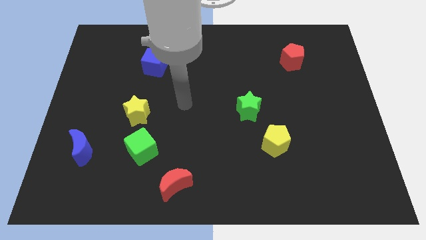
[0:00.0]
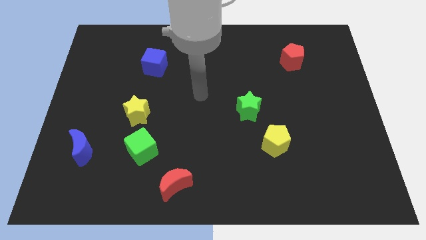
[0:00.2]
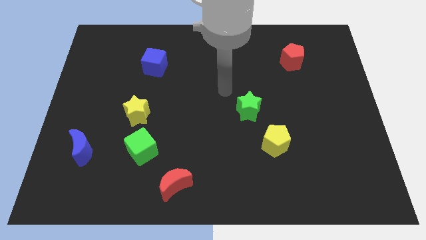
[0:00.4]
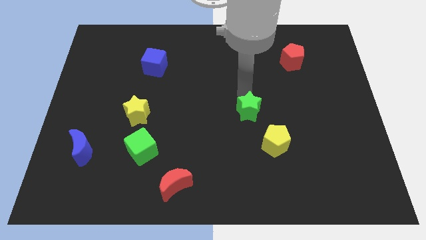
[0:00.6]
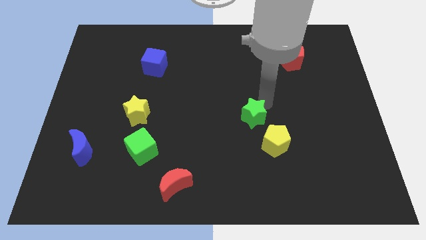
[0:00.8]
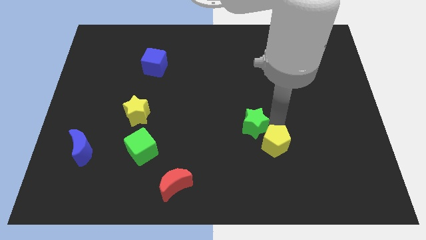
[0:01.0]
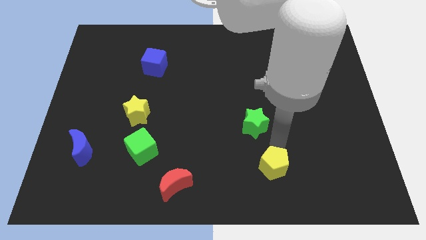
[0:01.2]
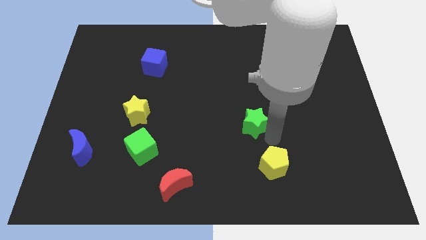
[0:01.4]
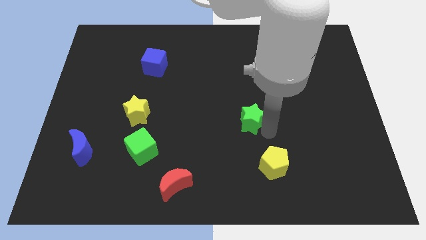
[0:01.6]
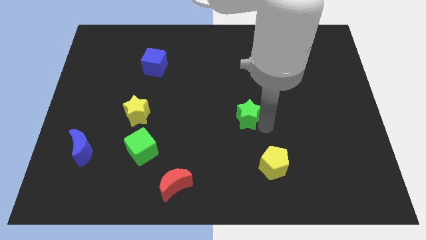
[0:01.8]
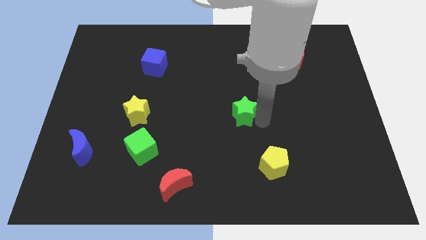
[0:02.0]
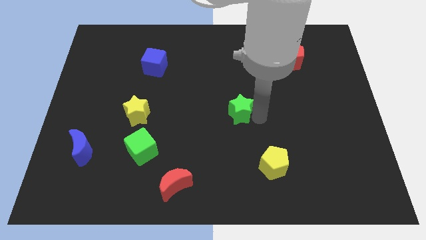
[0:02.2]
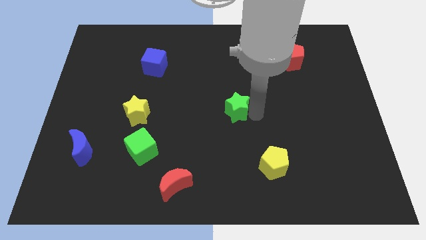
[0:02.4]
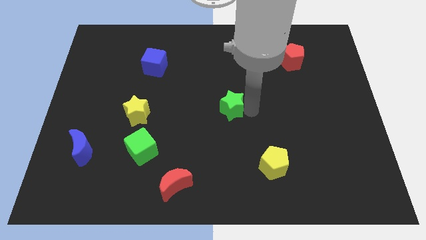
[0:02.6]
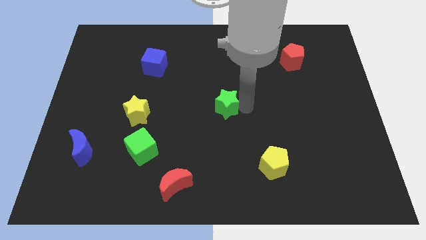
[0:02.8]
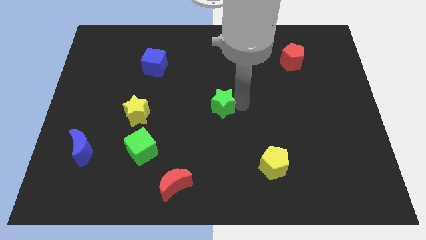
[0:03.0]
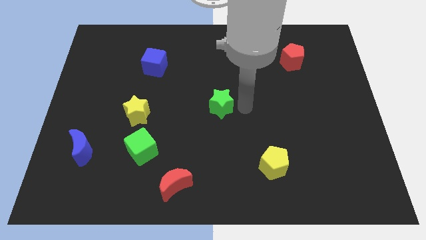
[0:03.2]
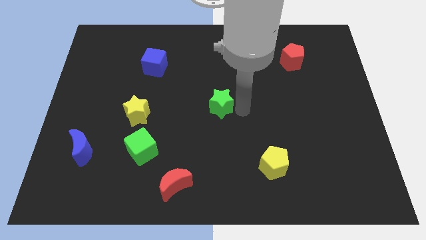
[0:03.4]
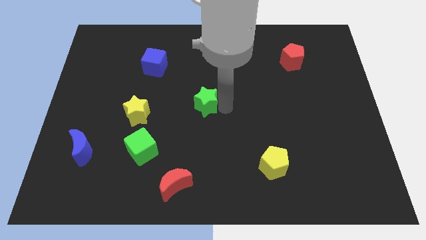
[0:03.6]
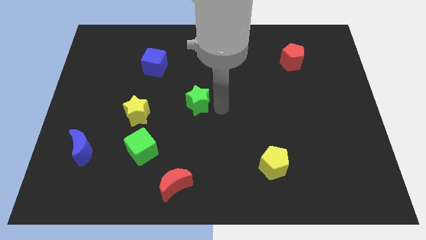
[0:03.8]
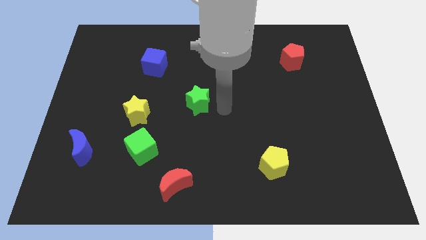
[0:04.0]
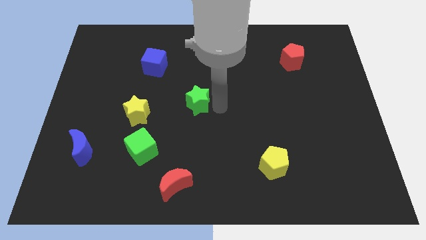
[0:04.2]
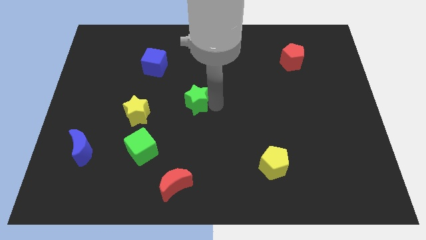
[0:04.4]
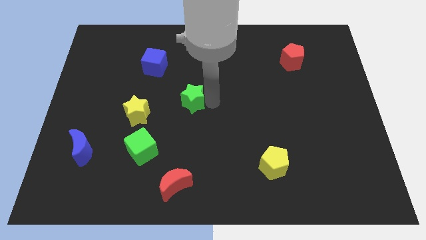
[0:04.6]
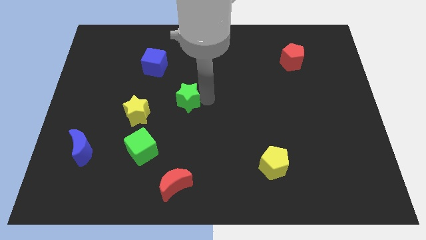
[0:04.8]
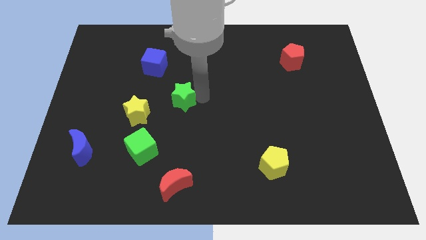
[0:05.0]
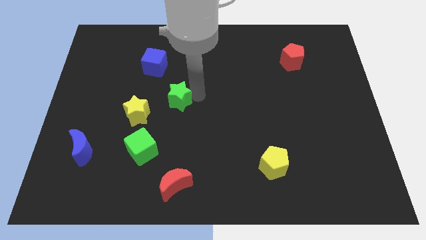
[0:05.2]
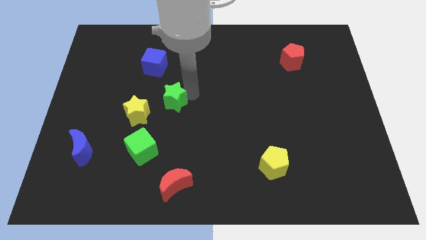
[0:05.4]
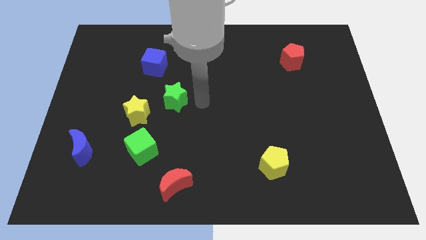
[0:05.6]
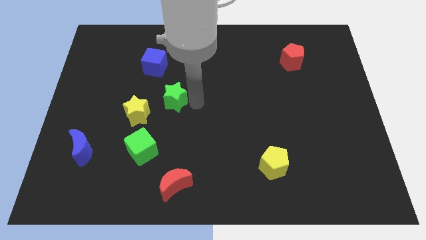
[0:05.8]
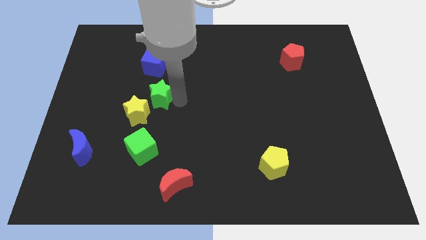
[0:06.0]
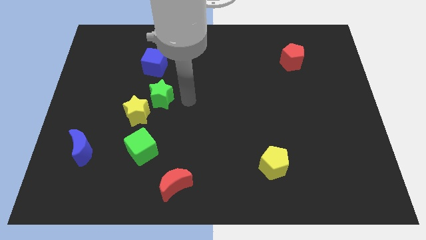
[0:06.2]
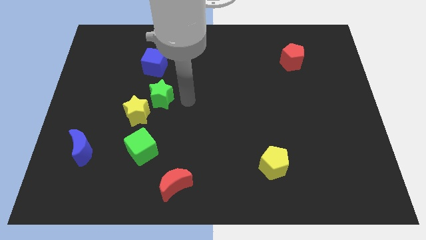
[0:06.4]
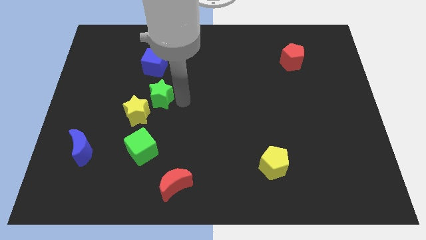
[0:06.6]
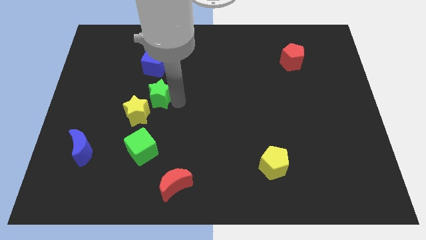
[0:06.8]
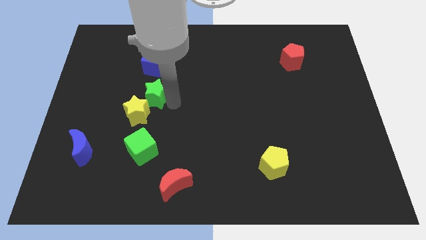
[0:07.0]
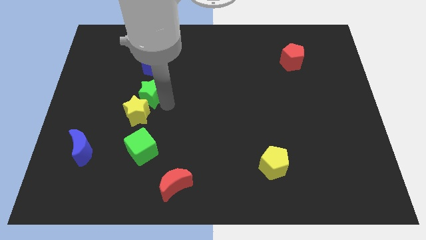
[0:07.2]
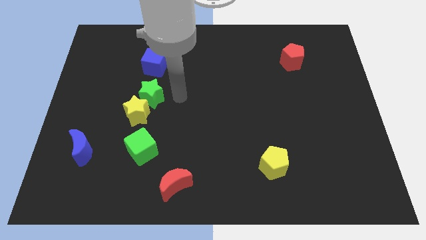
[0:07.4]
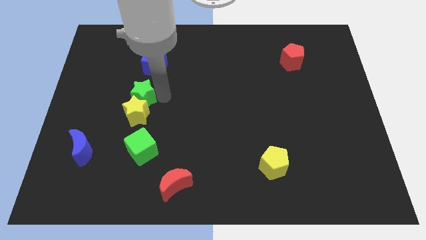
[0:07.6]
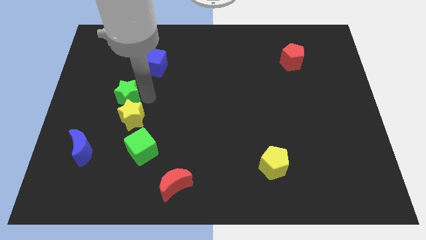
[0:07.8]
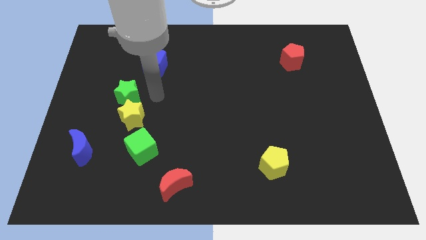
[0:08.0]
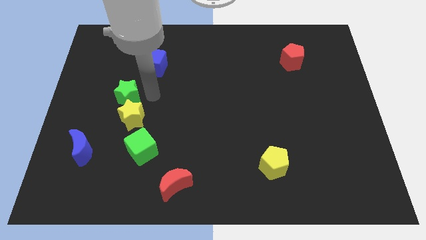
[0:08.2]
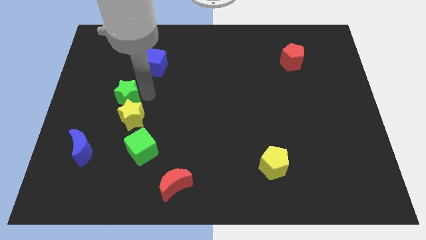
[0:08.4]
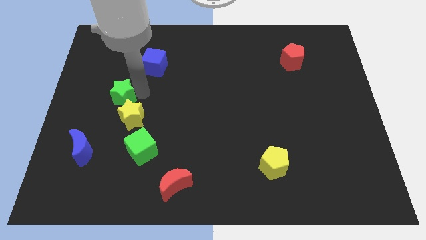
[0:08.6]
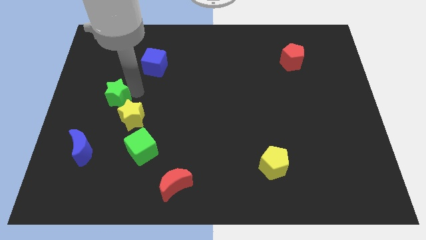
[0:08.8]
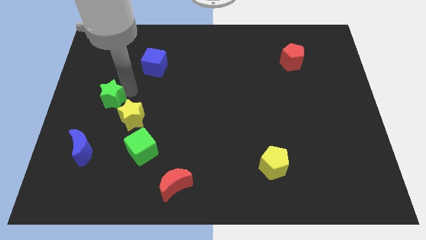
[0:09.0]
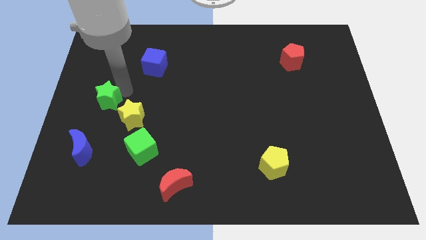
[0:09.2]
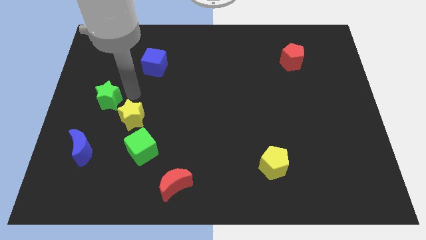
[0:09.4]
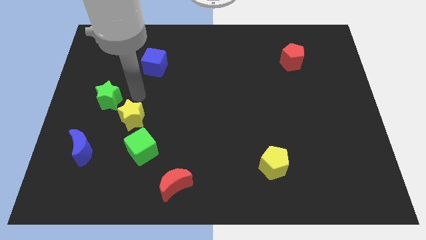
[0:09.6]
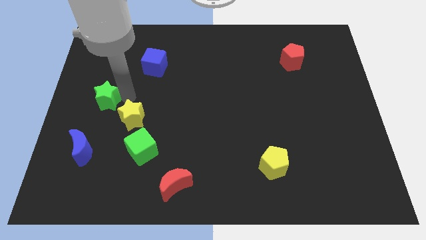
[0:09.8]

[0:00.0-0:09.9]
slide the green star to the center left

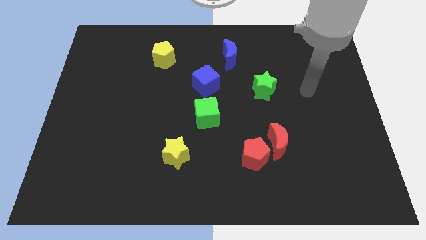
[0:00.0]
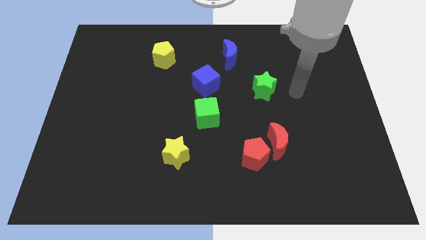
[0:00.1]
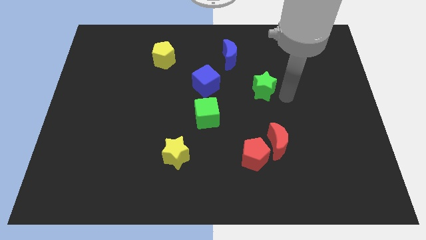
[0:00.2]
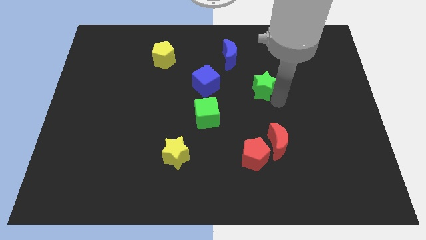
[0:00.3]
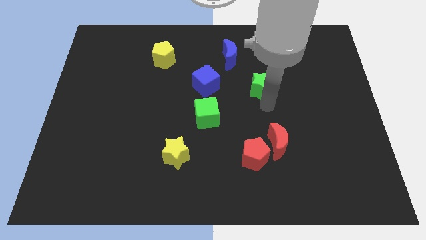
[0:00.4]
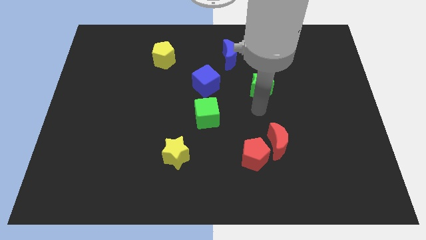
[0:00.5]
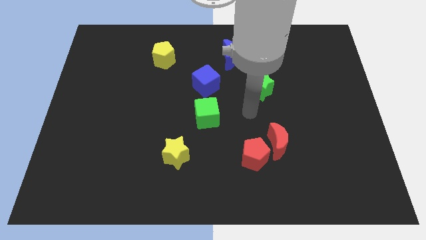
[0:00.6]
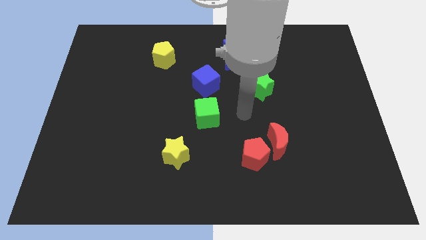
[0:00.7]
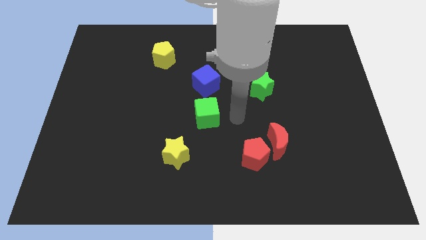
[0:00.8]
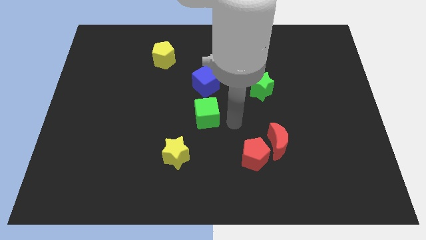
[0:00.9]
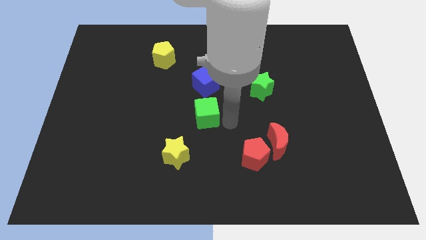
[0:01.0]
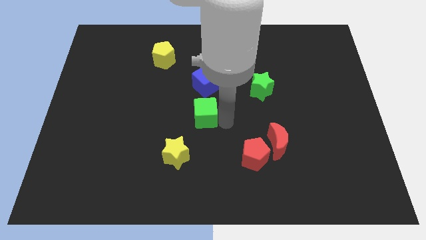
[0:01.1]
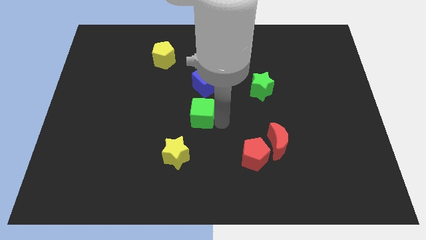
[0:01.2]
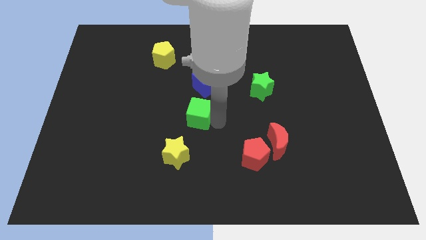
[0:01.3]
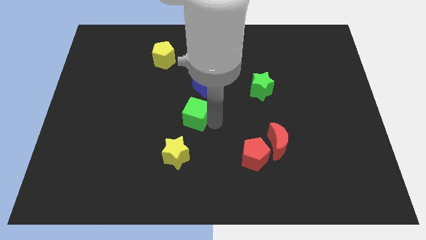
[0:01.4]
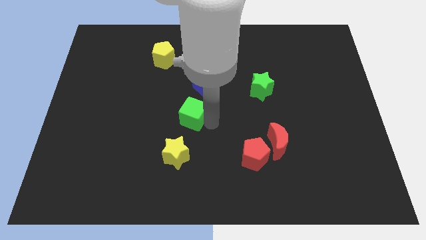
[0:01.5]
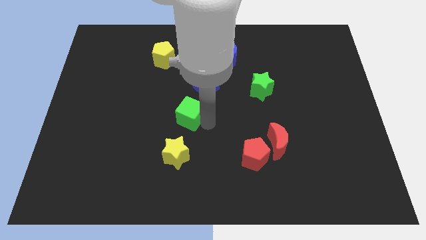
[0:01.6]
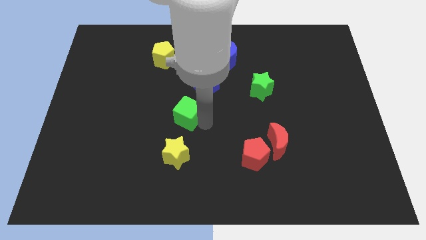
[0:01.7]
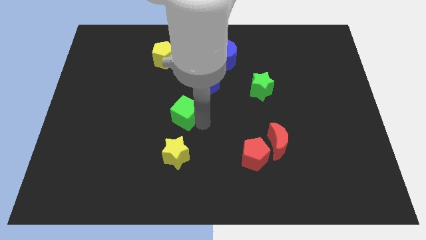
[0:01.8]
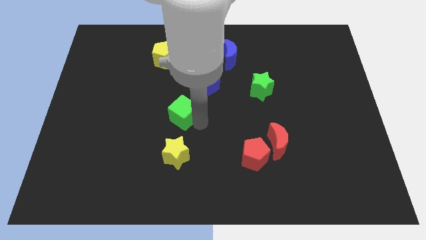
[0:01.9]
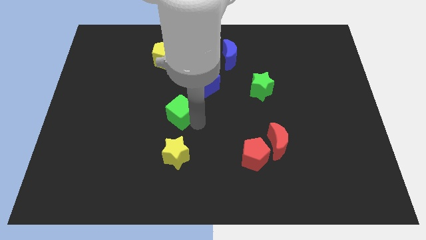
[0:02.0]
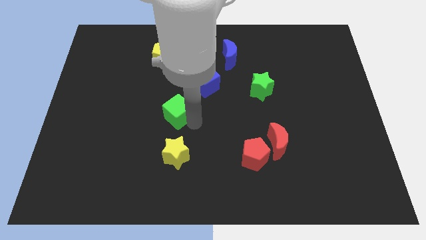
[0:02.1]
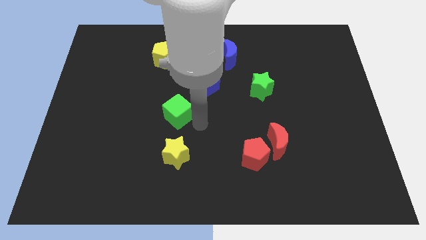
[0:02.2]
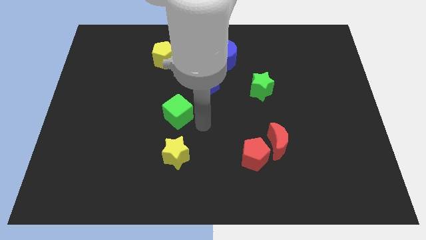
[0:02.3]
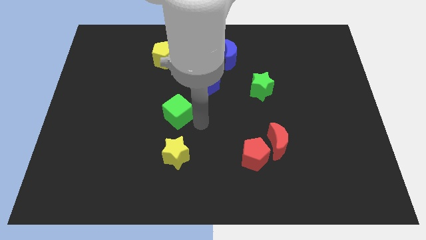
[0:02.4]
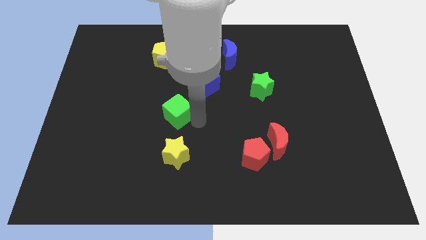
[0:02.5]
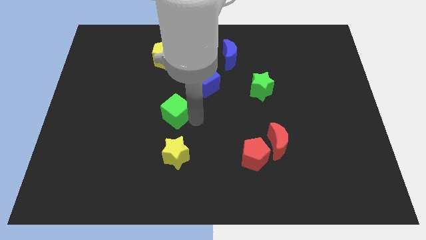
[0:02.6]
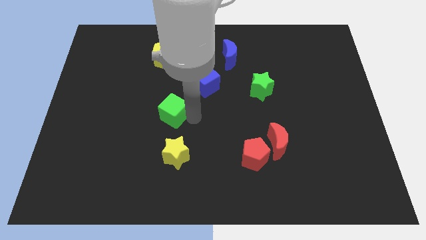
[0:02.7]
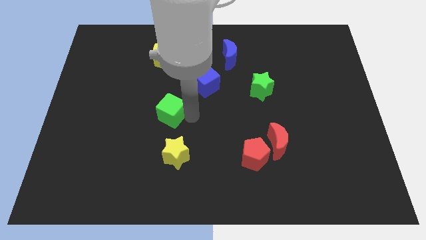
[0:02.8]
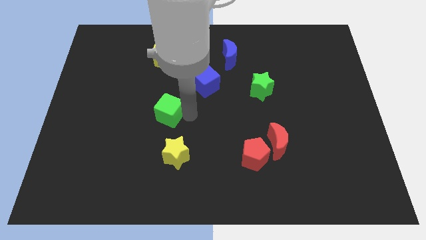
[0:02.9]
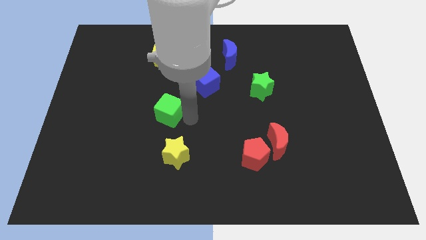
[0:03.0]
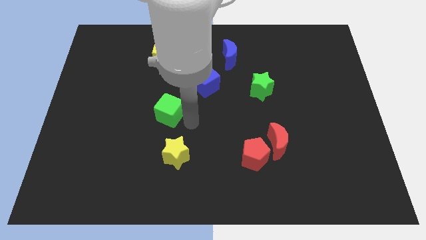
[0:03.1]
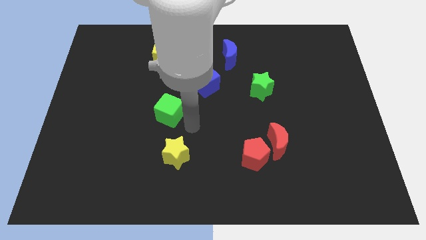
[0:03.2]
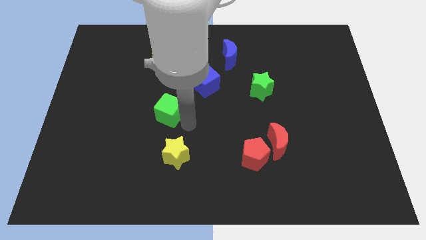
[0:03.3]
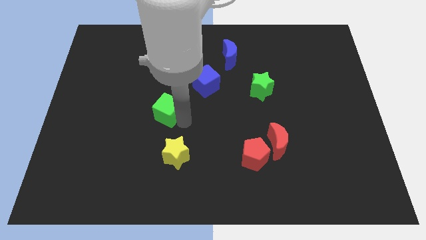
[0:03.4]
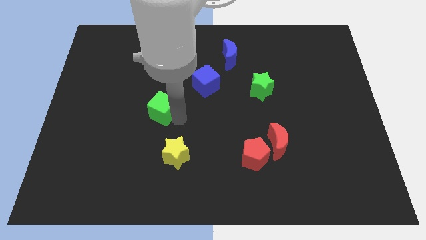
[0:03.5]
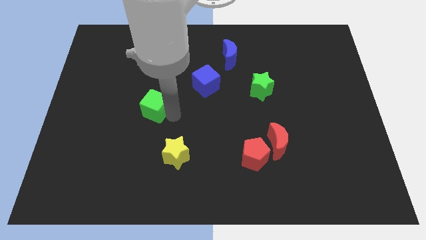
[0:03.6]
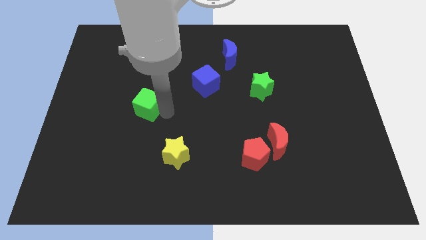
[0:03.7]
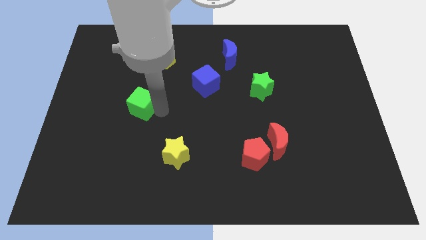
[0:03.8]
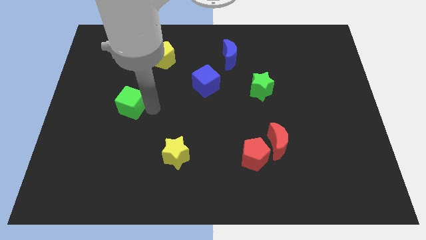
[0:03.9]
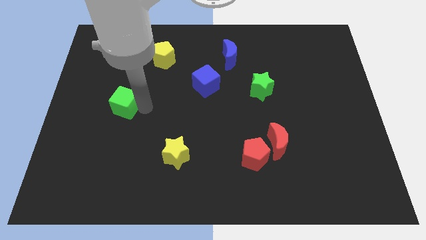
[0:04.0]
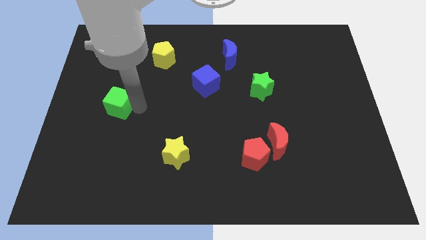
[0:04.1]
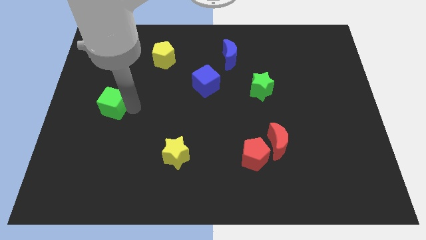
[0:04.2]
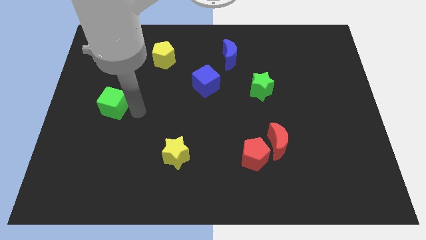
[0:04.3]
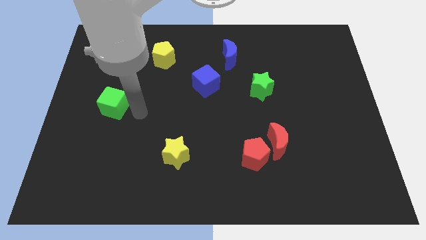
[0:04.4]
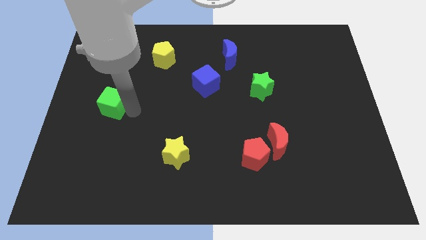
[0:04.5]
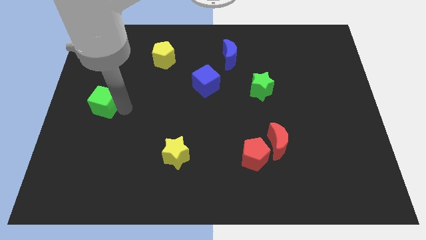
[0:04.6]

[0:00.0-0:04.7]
push the green cube to the left side of the board
